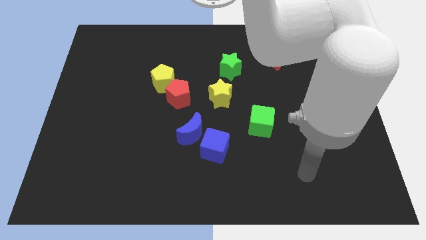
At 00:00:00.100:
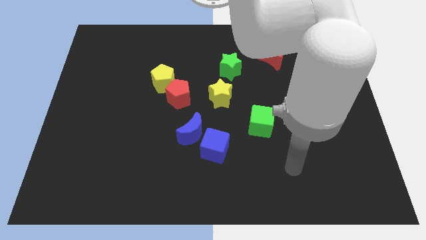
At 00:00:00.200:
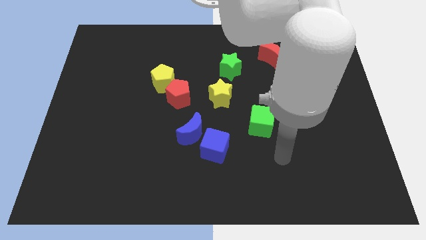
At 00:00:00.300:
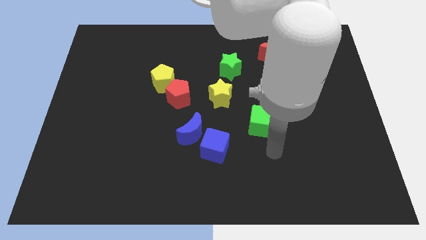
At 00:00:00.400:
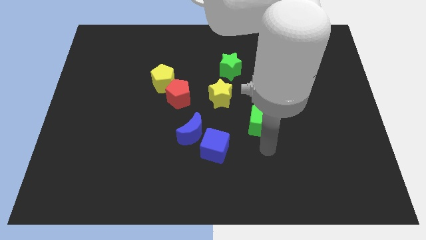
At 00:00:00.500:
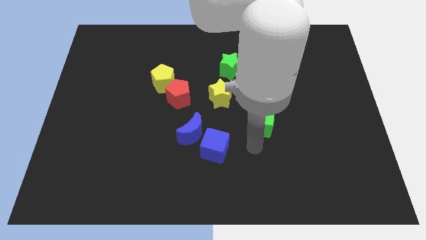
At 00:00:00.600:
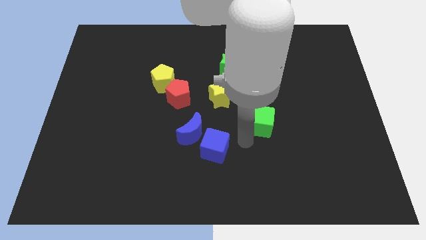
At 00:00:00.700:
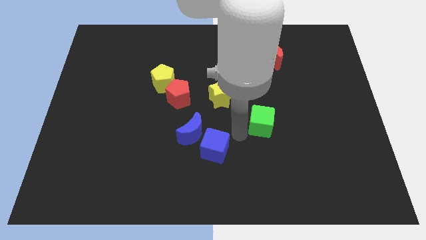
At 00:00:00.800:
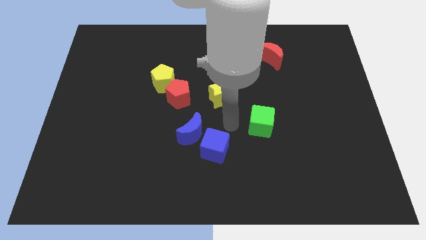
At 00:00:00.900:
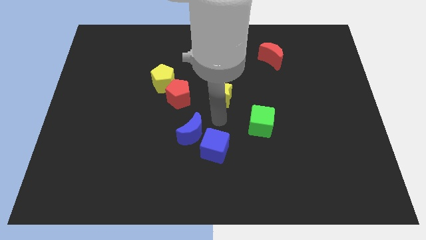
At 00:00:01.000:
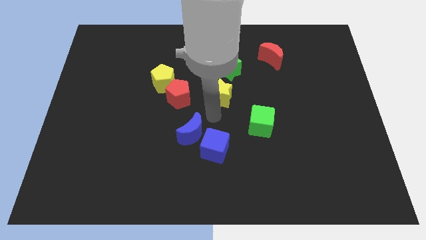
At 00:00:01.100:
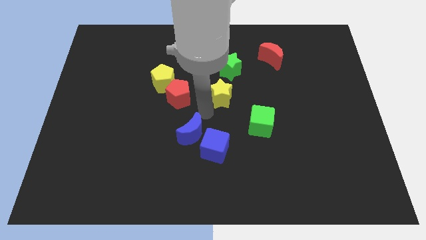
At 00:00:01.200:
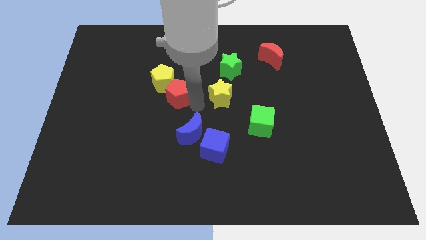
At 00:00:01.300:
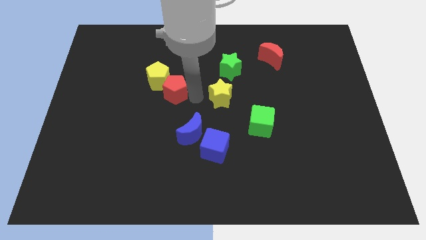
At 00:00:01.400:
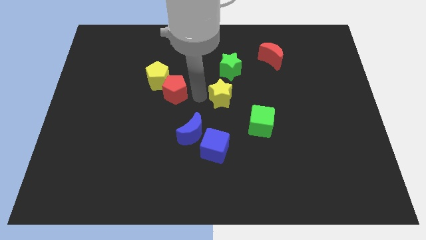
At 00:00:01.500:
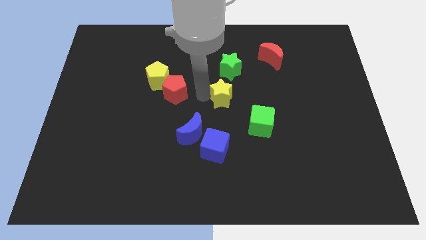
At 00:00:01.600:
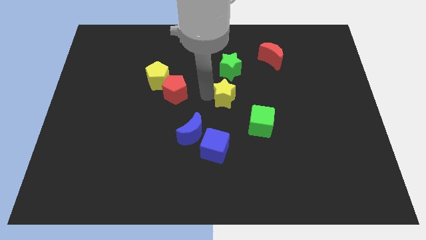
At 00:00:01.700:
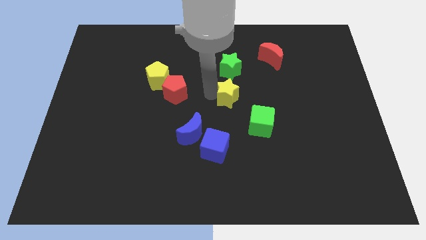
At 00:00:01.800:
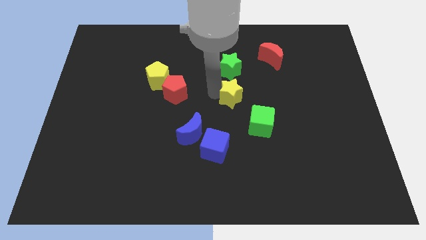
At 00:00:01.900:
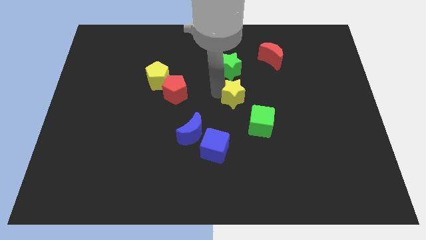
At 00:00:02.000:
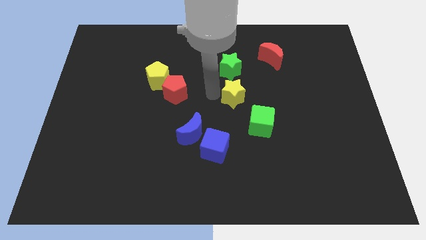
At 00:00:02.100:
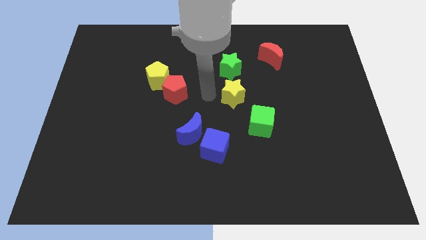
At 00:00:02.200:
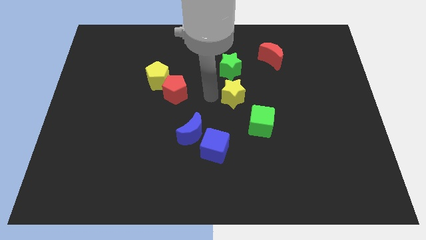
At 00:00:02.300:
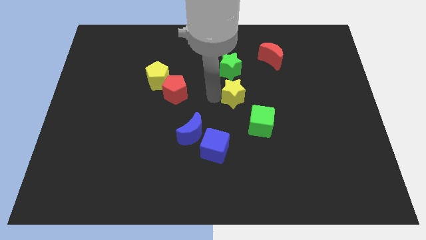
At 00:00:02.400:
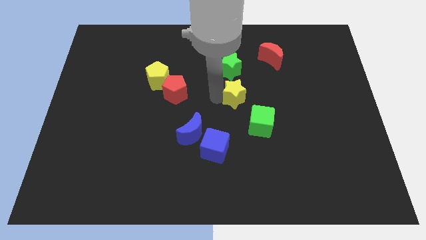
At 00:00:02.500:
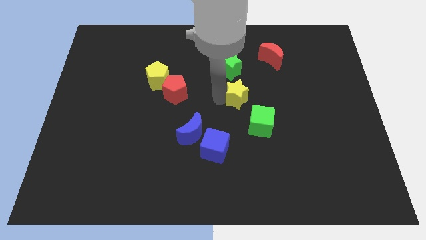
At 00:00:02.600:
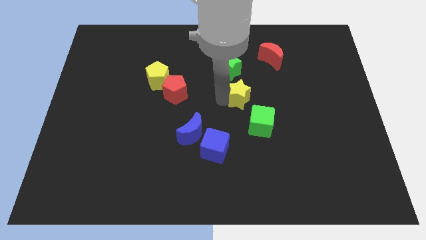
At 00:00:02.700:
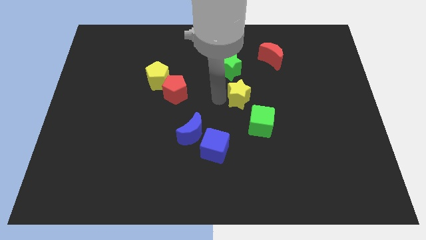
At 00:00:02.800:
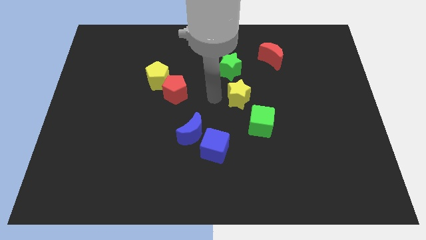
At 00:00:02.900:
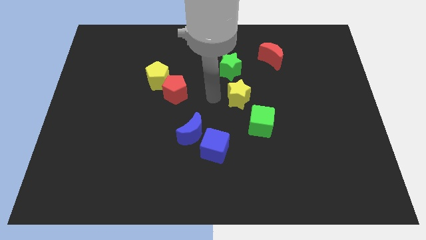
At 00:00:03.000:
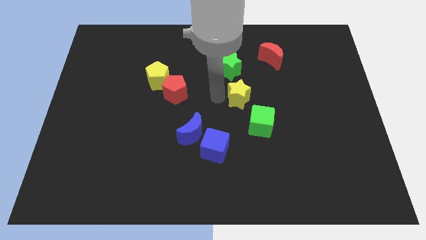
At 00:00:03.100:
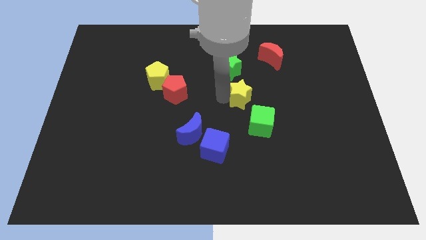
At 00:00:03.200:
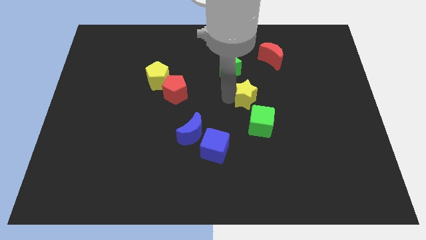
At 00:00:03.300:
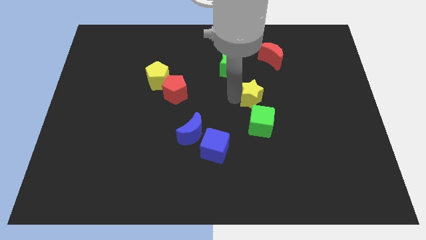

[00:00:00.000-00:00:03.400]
move the yellow star a bit right

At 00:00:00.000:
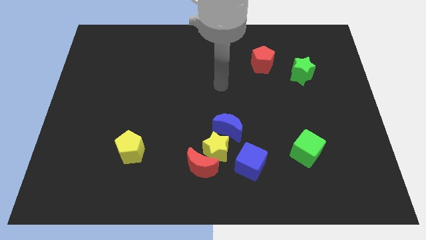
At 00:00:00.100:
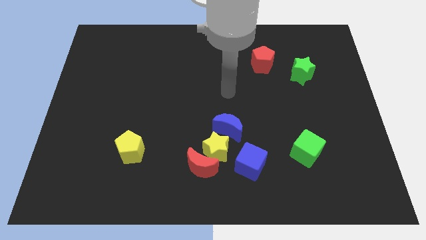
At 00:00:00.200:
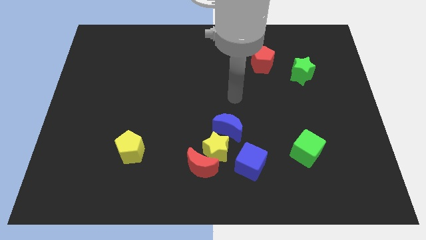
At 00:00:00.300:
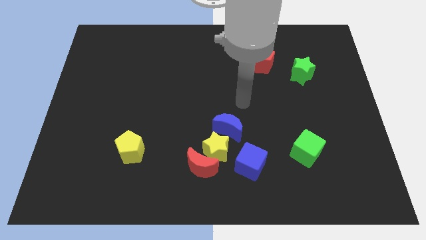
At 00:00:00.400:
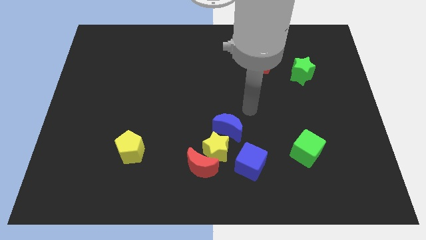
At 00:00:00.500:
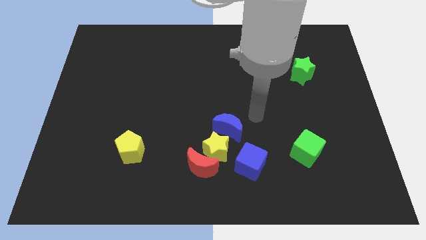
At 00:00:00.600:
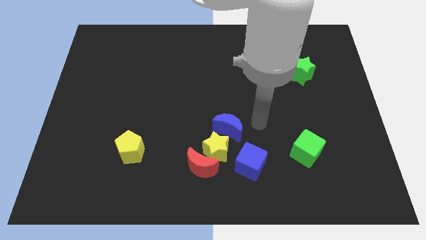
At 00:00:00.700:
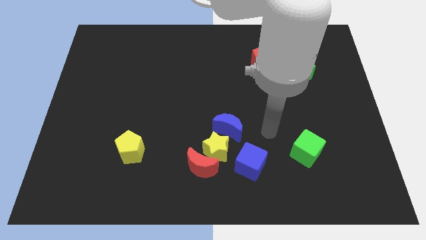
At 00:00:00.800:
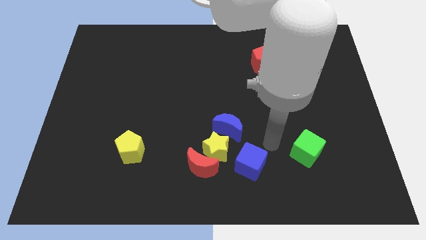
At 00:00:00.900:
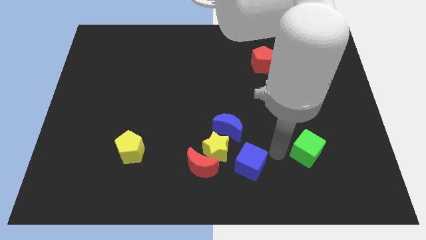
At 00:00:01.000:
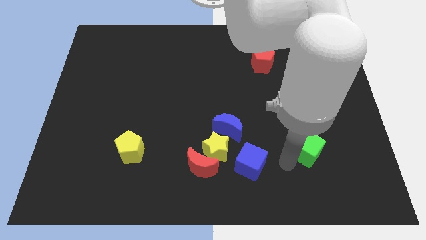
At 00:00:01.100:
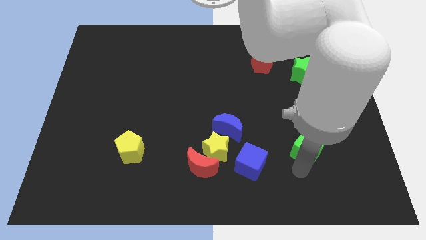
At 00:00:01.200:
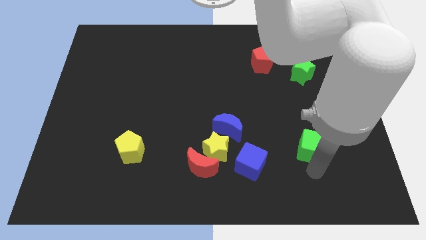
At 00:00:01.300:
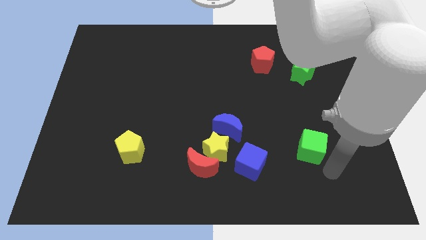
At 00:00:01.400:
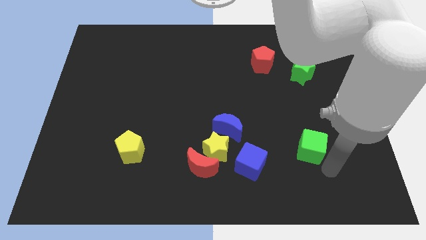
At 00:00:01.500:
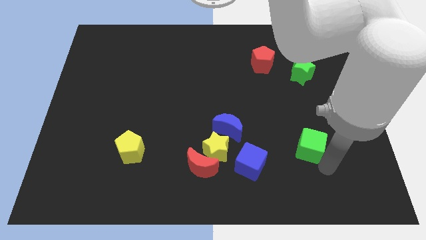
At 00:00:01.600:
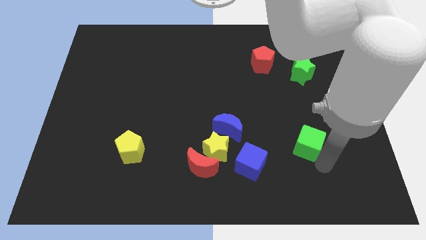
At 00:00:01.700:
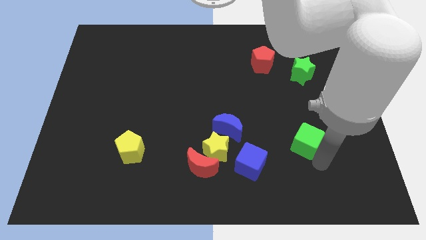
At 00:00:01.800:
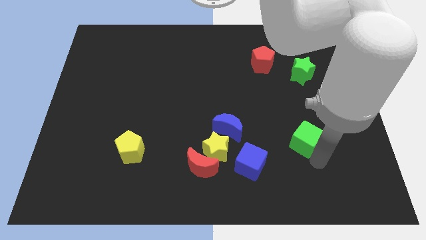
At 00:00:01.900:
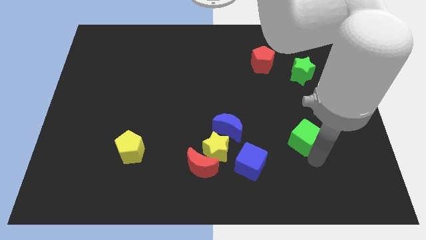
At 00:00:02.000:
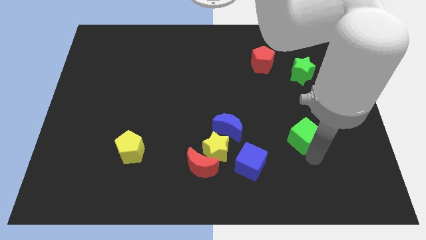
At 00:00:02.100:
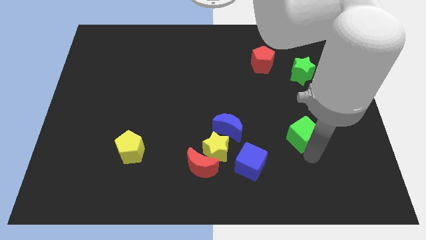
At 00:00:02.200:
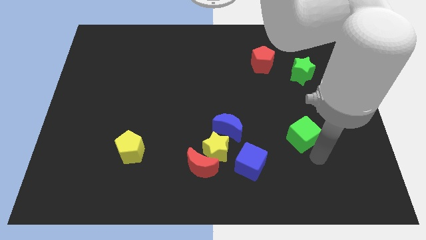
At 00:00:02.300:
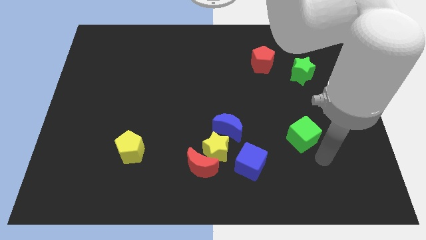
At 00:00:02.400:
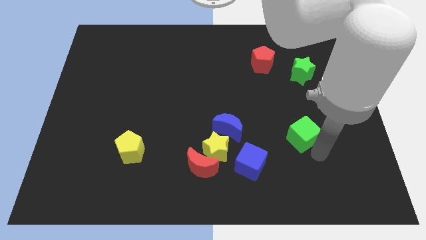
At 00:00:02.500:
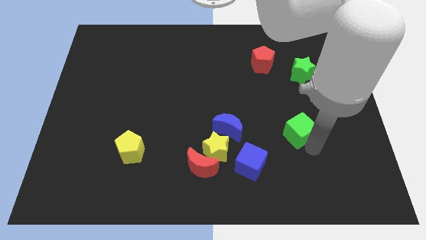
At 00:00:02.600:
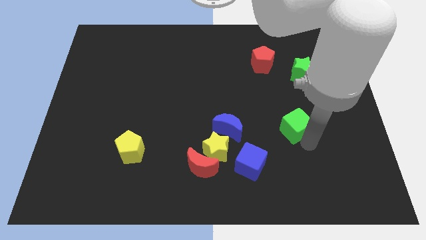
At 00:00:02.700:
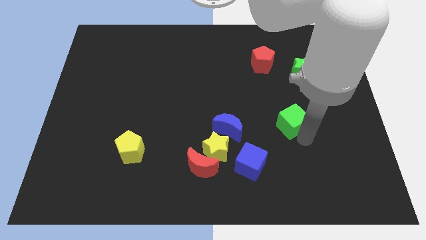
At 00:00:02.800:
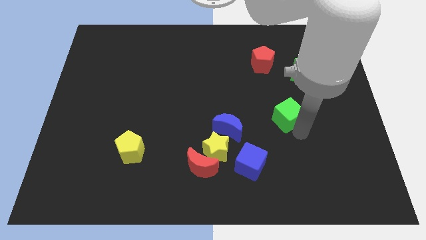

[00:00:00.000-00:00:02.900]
slightly push the green cube up and left diagonally

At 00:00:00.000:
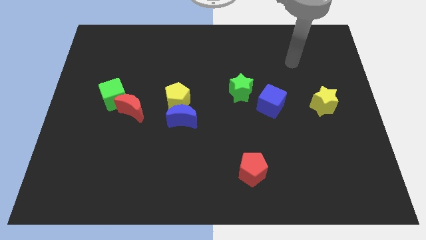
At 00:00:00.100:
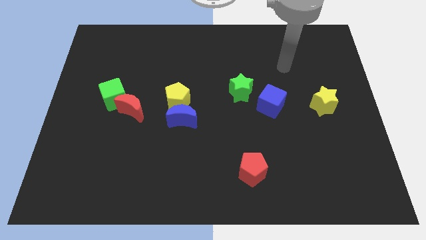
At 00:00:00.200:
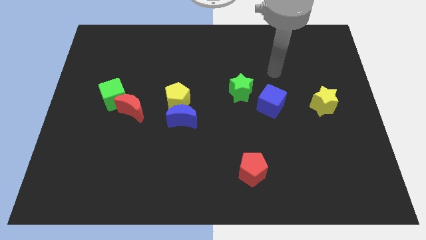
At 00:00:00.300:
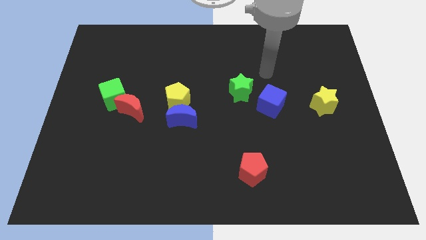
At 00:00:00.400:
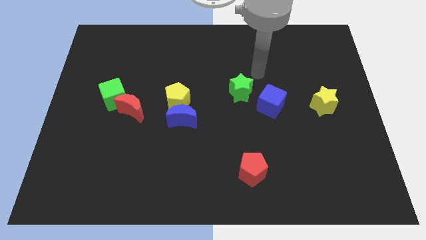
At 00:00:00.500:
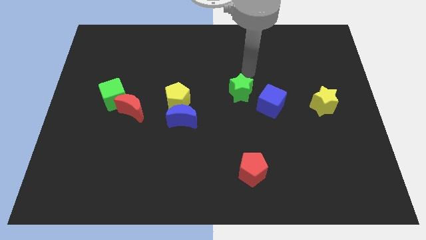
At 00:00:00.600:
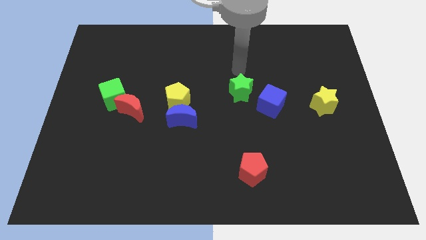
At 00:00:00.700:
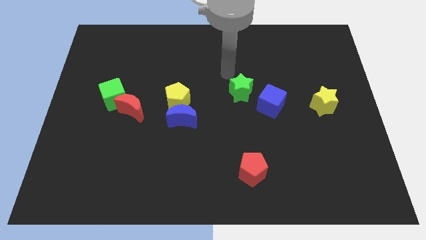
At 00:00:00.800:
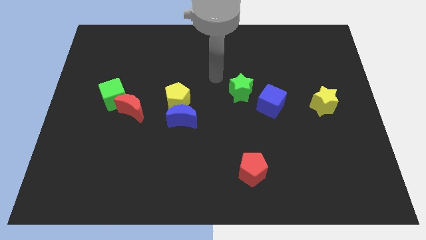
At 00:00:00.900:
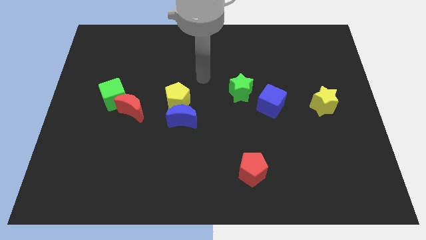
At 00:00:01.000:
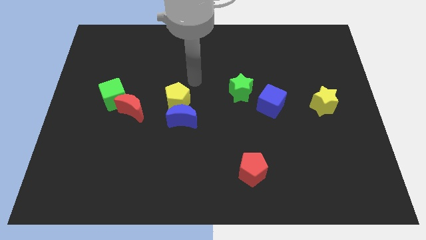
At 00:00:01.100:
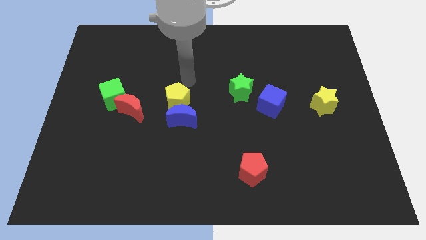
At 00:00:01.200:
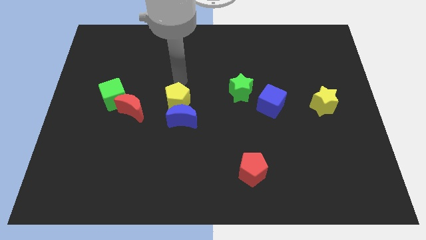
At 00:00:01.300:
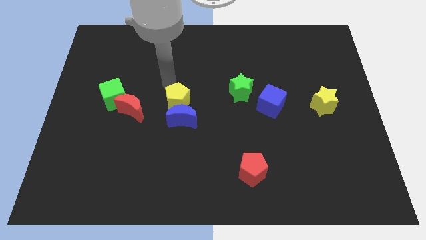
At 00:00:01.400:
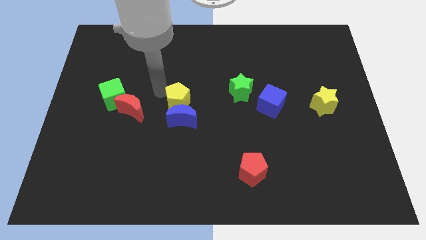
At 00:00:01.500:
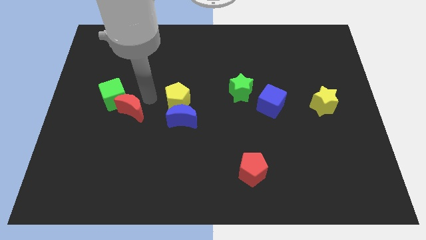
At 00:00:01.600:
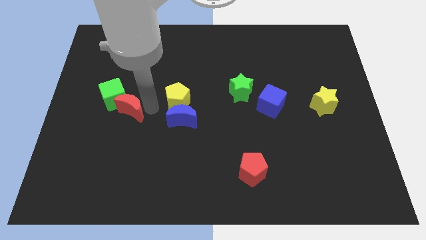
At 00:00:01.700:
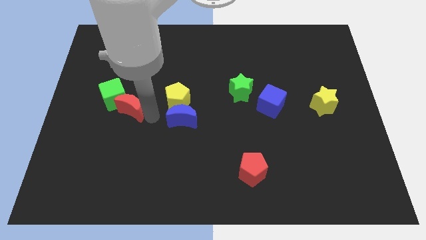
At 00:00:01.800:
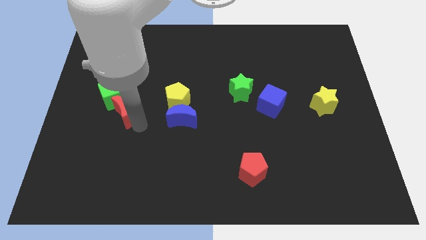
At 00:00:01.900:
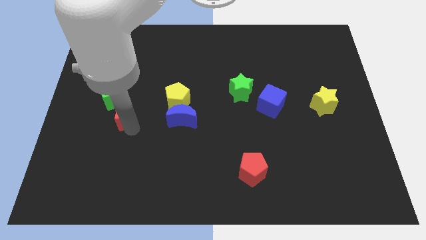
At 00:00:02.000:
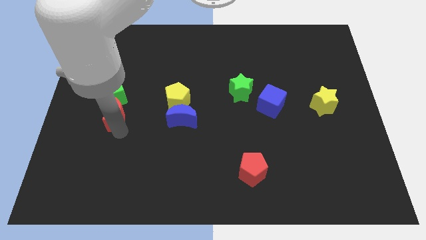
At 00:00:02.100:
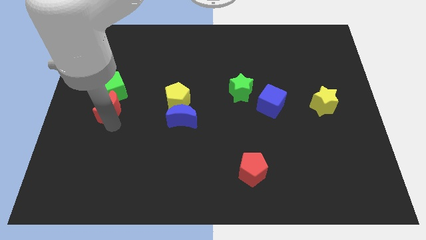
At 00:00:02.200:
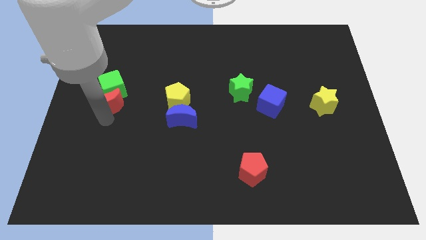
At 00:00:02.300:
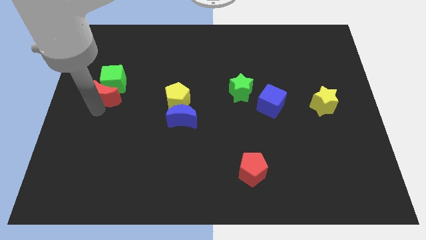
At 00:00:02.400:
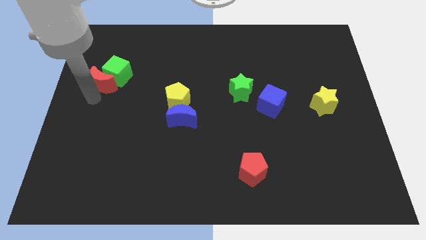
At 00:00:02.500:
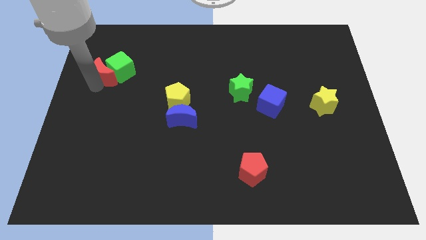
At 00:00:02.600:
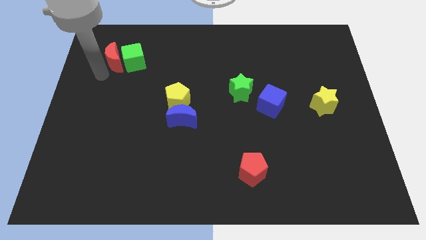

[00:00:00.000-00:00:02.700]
slightly push the green cube up and to the right diagonally
